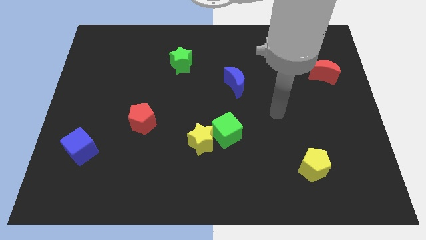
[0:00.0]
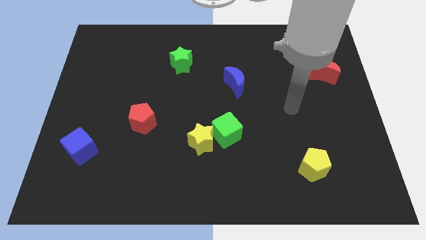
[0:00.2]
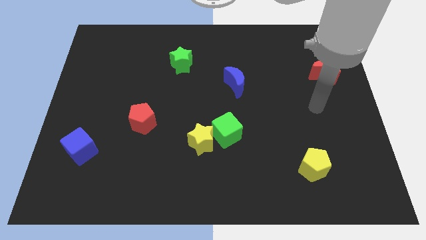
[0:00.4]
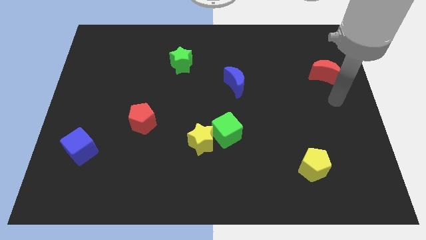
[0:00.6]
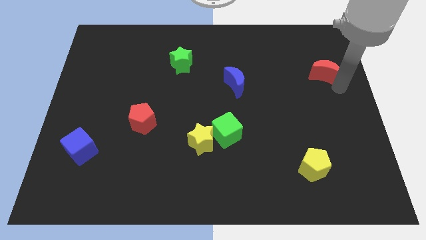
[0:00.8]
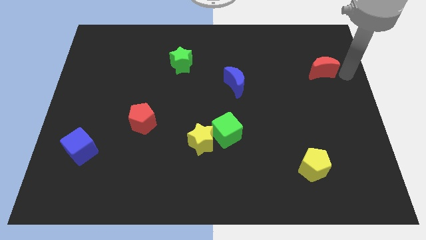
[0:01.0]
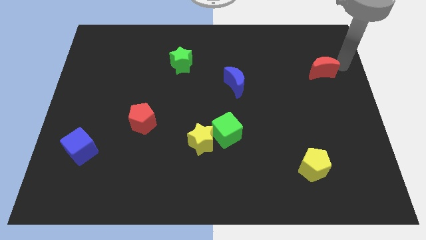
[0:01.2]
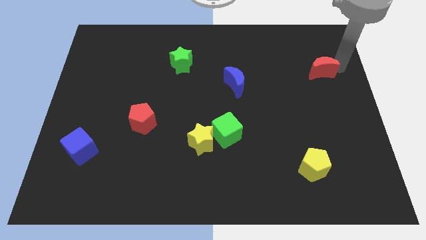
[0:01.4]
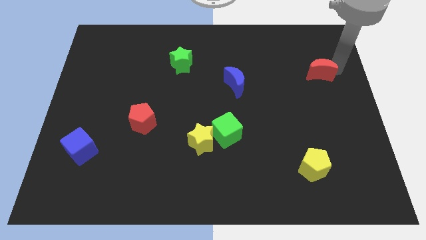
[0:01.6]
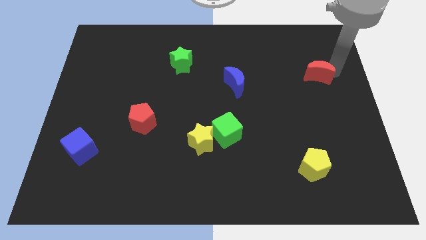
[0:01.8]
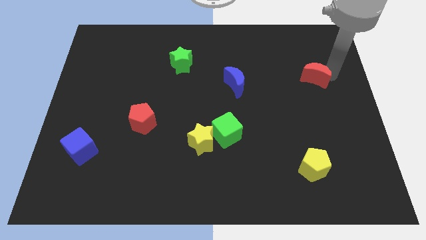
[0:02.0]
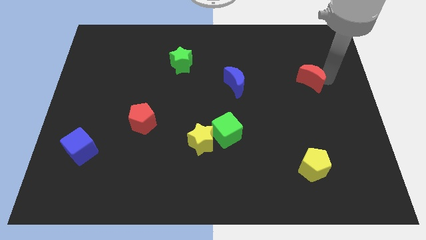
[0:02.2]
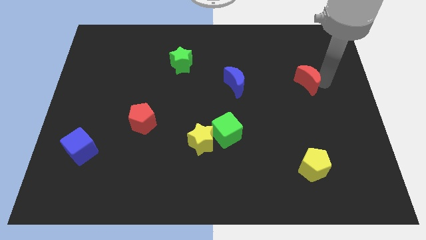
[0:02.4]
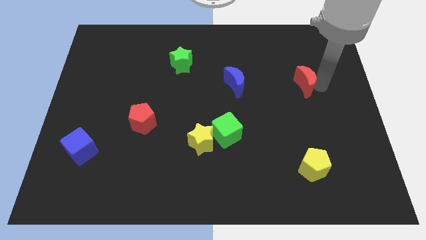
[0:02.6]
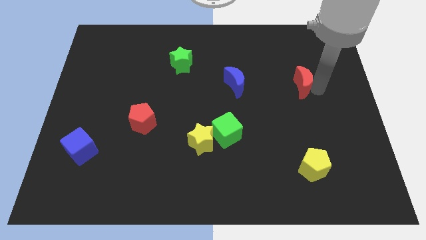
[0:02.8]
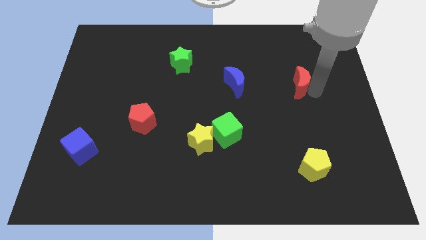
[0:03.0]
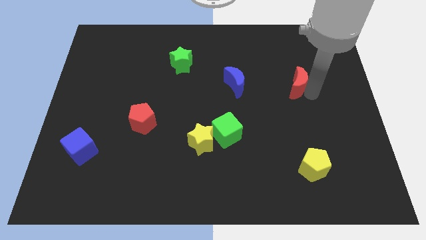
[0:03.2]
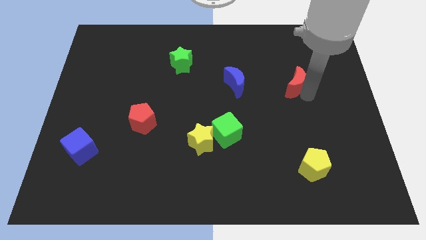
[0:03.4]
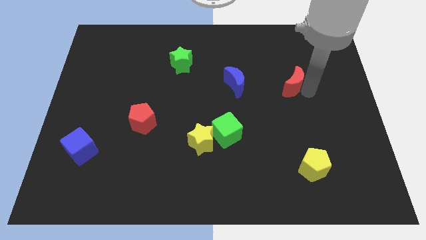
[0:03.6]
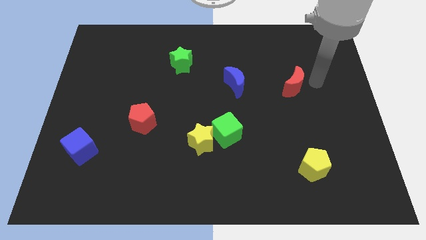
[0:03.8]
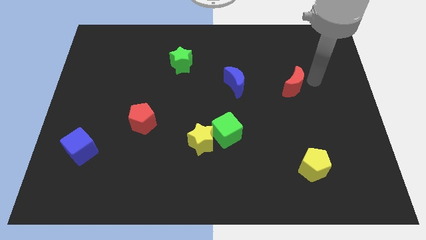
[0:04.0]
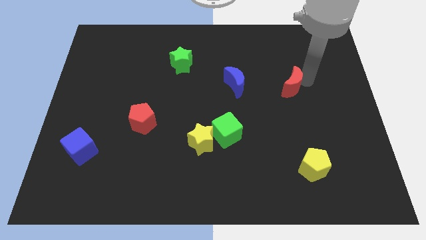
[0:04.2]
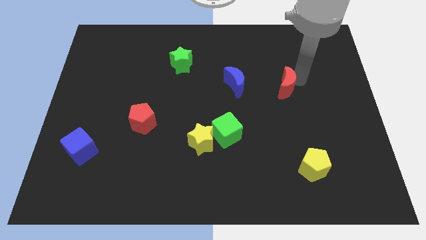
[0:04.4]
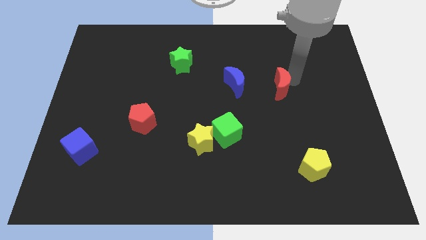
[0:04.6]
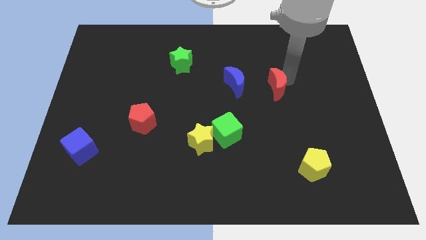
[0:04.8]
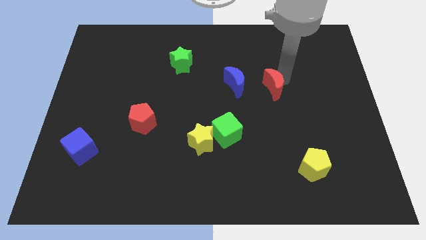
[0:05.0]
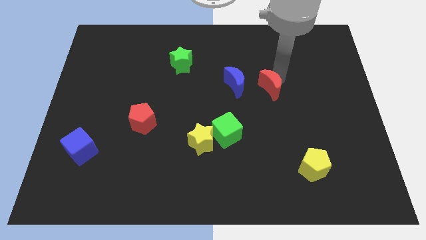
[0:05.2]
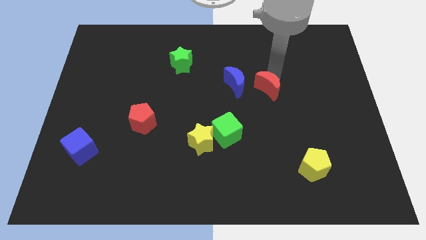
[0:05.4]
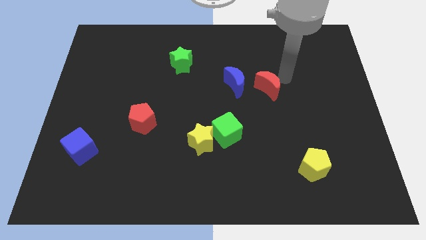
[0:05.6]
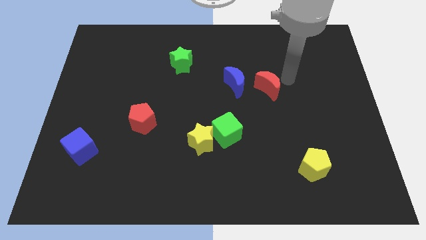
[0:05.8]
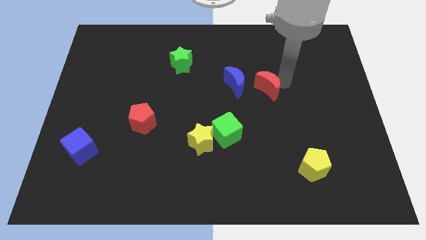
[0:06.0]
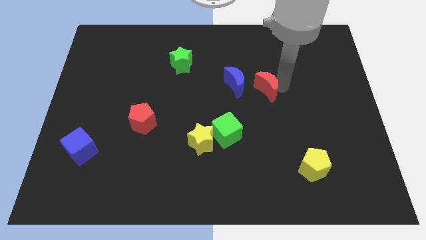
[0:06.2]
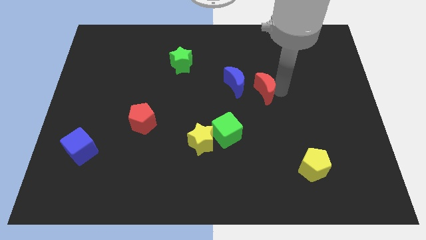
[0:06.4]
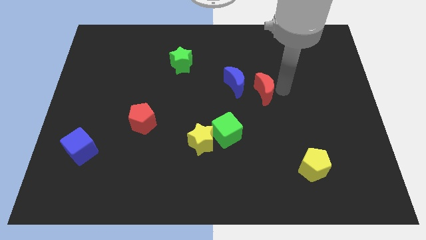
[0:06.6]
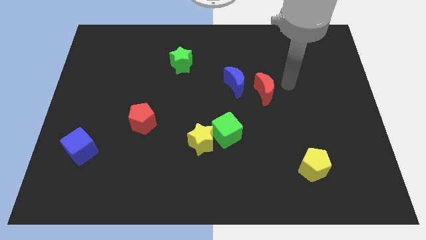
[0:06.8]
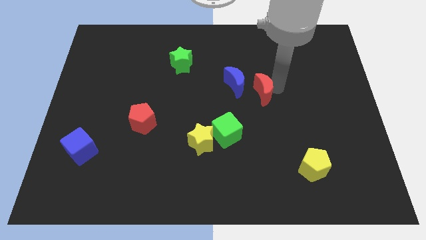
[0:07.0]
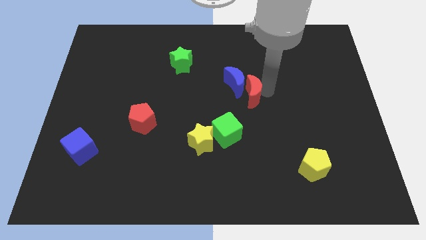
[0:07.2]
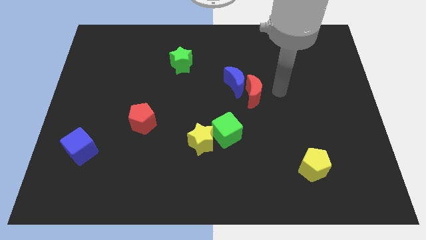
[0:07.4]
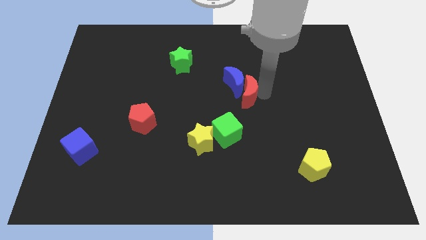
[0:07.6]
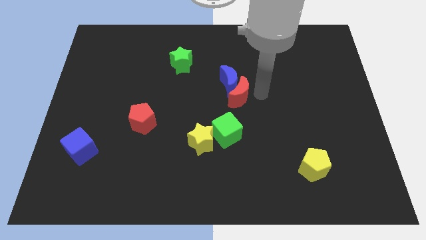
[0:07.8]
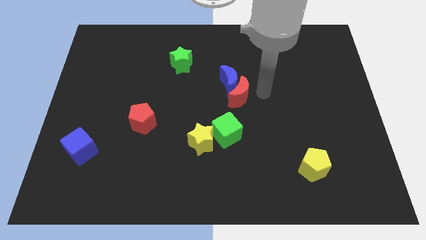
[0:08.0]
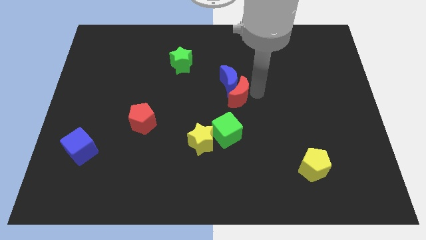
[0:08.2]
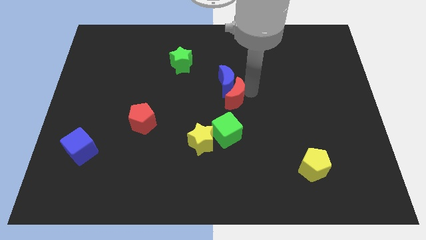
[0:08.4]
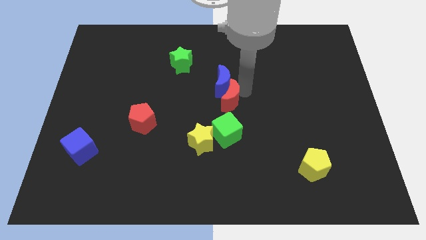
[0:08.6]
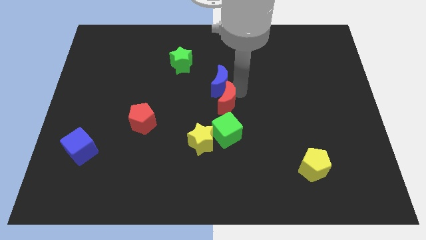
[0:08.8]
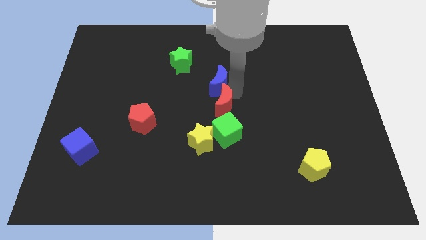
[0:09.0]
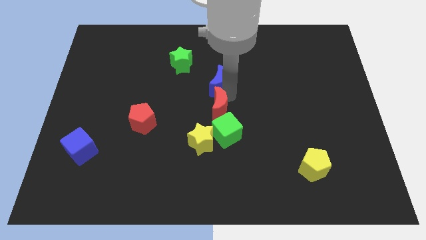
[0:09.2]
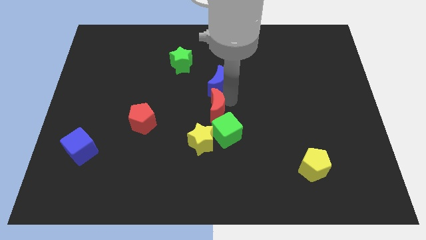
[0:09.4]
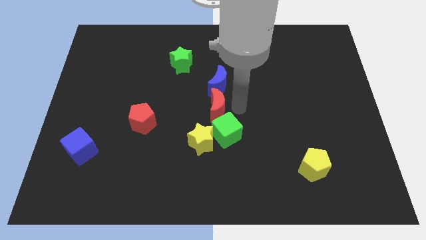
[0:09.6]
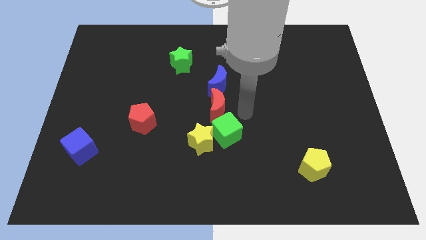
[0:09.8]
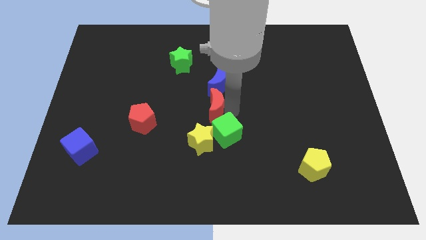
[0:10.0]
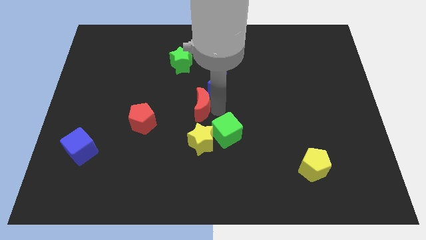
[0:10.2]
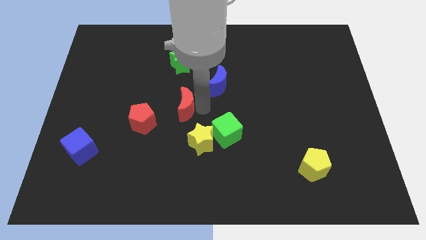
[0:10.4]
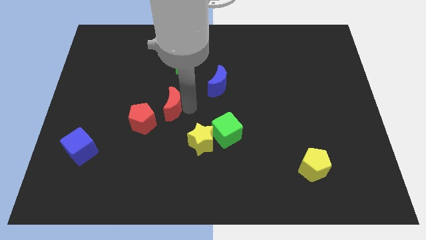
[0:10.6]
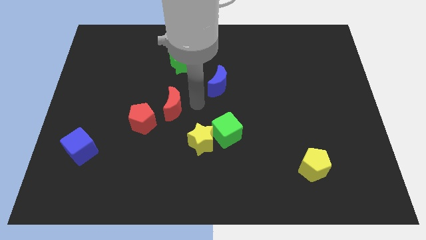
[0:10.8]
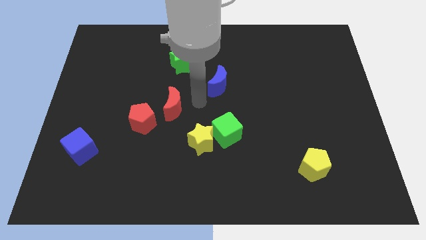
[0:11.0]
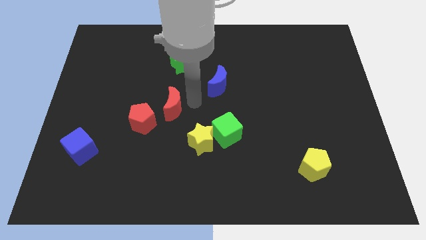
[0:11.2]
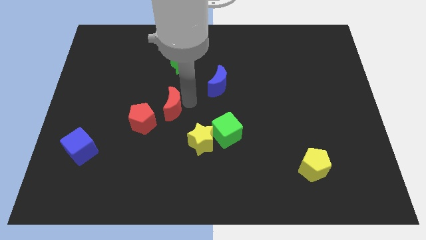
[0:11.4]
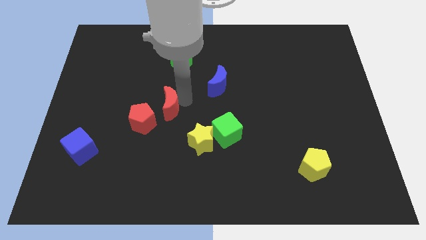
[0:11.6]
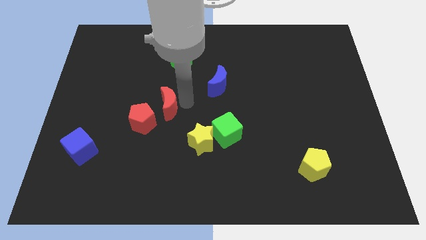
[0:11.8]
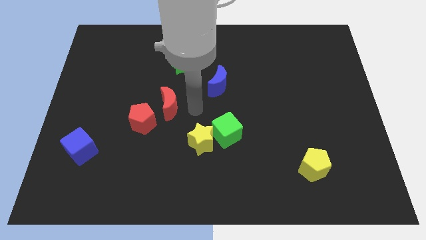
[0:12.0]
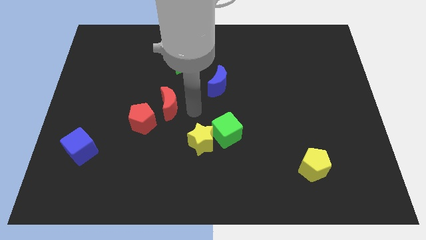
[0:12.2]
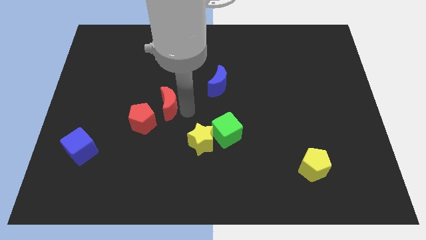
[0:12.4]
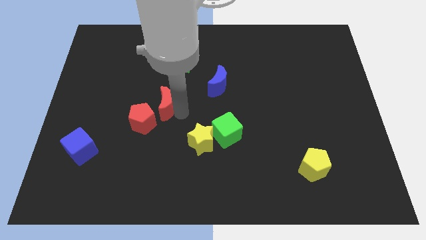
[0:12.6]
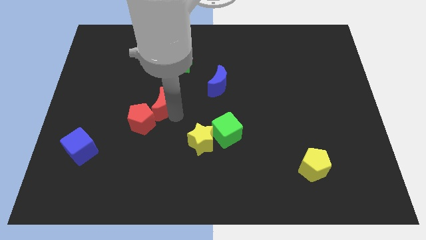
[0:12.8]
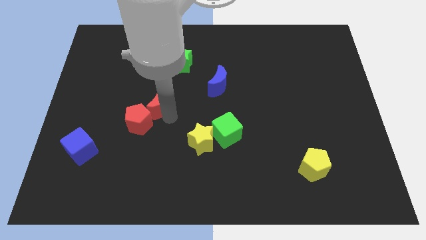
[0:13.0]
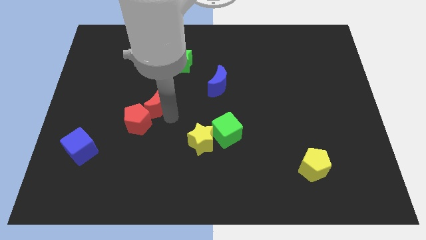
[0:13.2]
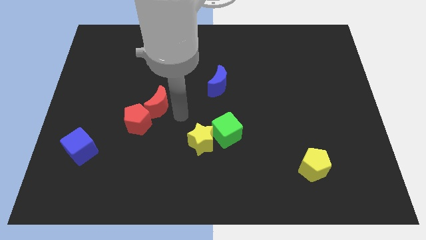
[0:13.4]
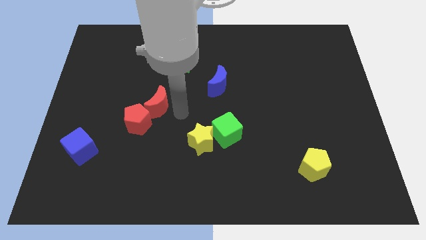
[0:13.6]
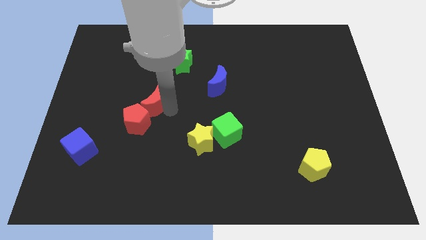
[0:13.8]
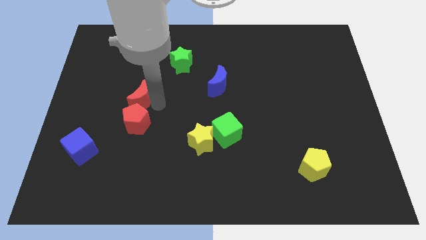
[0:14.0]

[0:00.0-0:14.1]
move the red moon to the top left of the red pentagon
